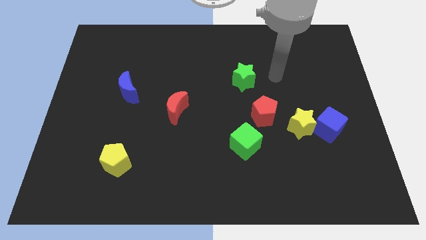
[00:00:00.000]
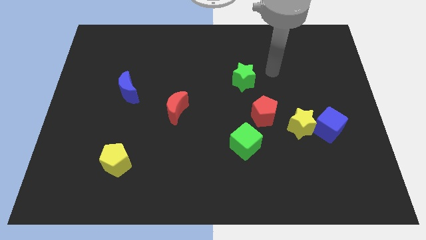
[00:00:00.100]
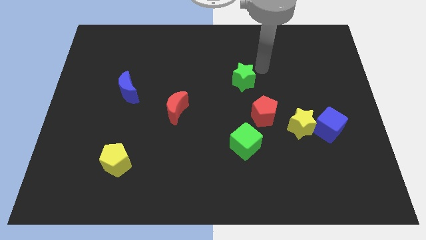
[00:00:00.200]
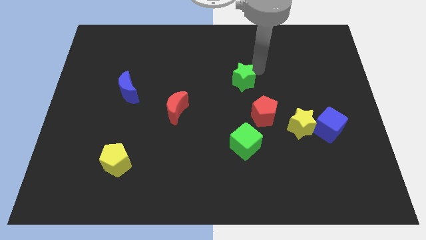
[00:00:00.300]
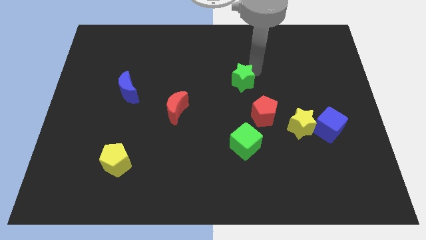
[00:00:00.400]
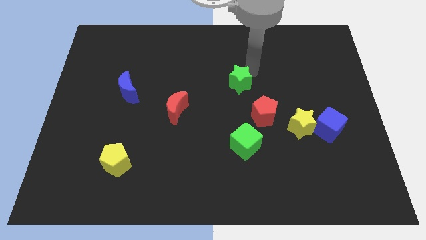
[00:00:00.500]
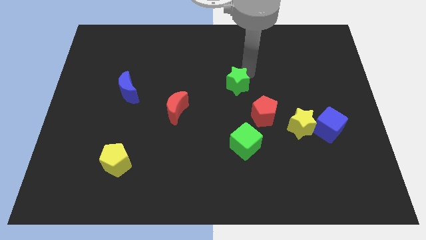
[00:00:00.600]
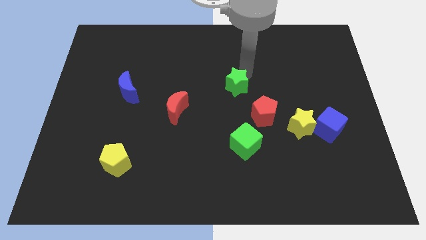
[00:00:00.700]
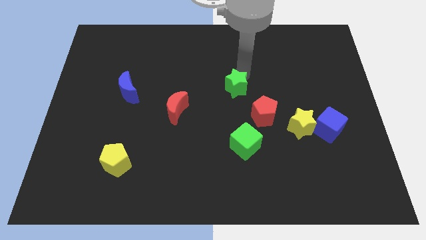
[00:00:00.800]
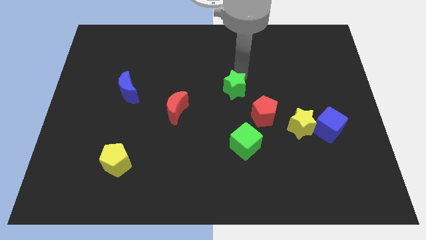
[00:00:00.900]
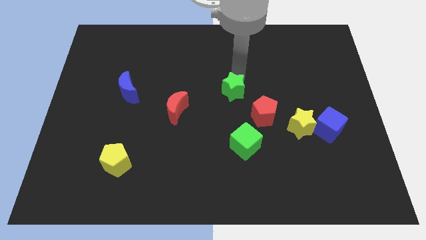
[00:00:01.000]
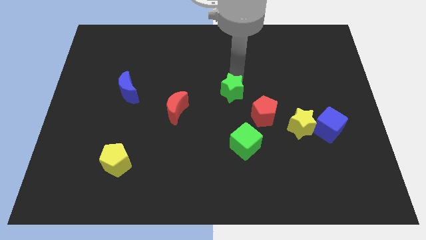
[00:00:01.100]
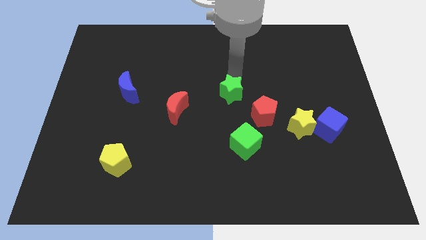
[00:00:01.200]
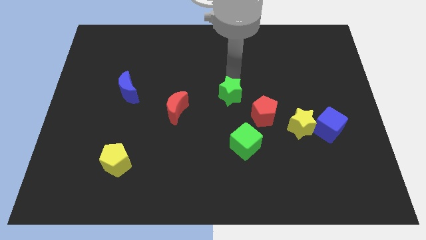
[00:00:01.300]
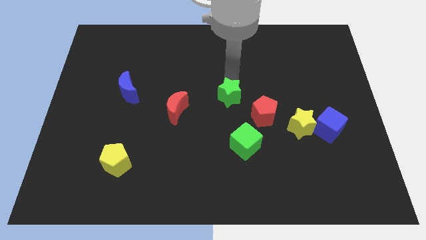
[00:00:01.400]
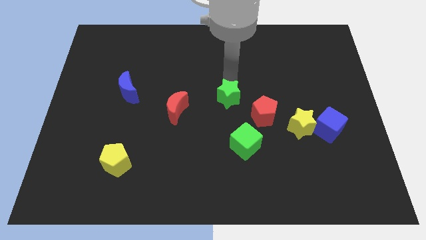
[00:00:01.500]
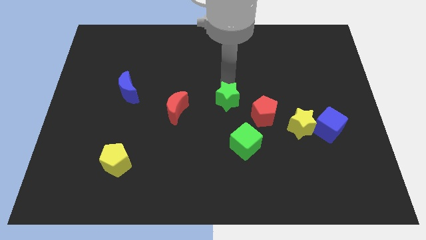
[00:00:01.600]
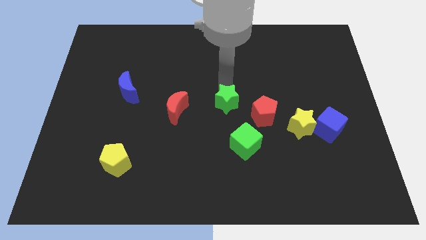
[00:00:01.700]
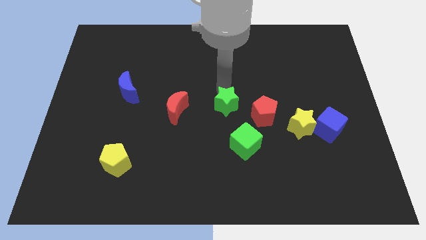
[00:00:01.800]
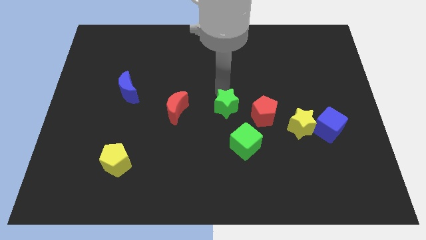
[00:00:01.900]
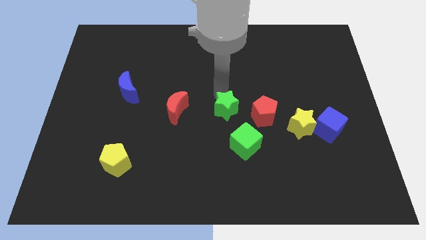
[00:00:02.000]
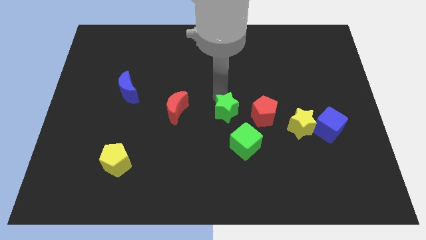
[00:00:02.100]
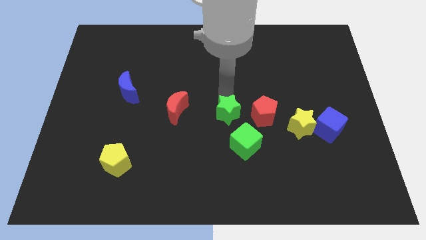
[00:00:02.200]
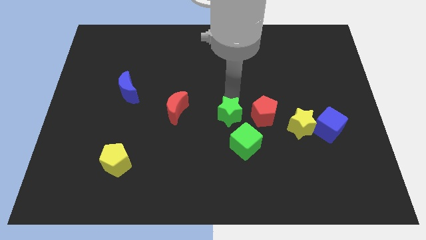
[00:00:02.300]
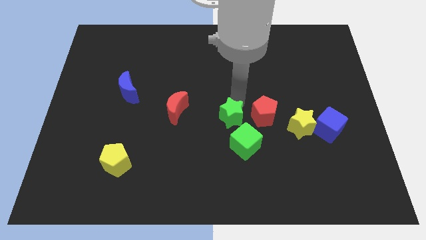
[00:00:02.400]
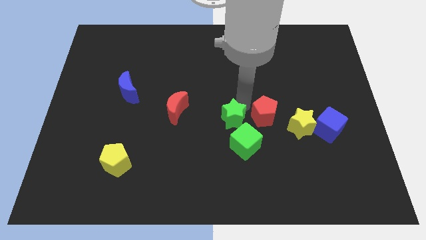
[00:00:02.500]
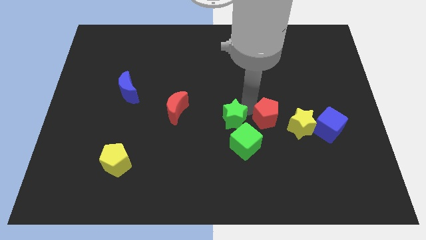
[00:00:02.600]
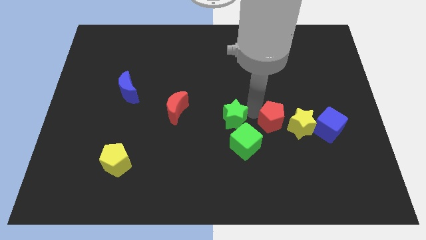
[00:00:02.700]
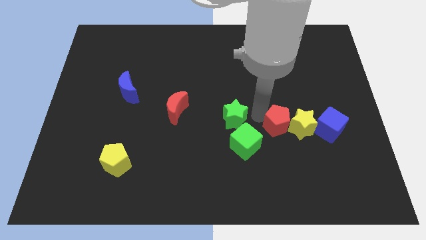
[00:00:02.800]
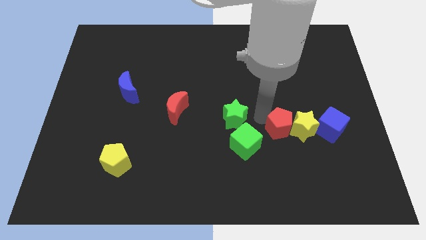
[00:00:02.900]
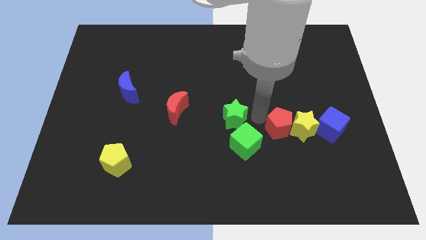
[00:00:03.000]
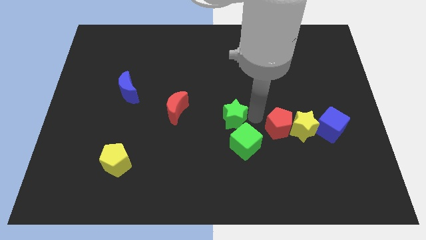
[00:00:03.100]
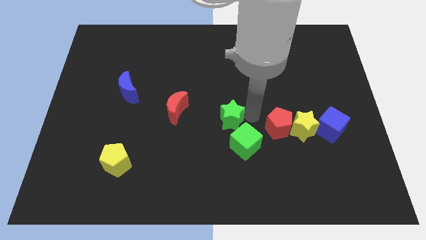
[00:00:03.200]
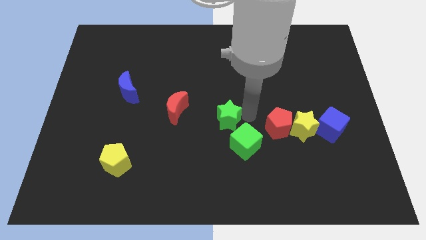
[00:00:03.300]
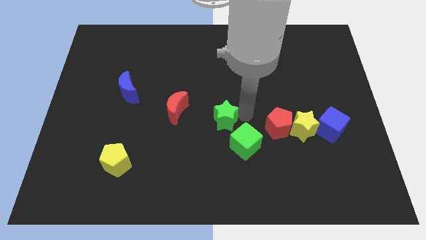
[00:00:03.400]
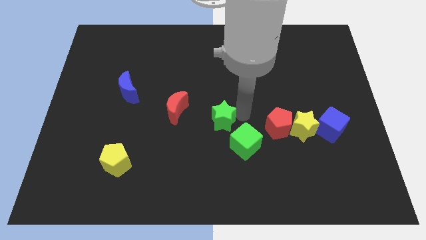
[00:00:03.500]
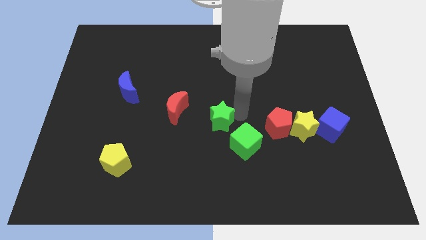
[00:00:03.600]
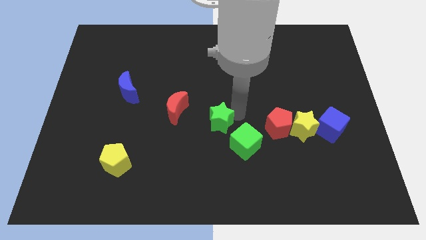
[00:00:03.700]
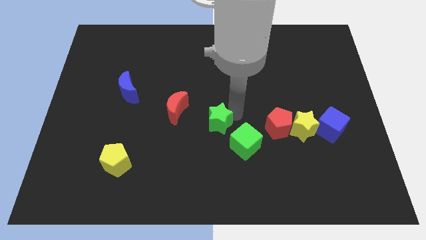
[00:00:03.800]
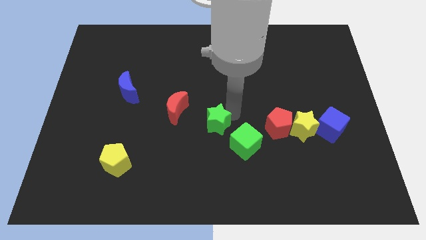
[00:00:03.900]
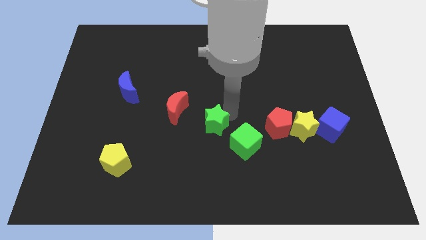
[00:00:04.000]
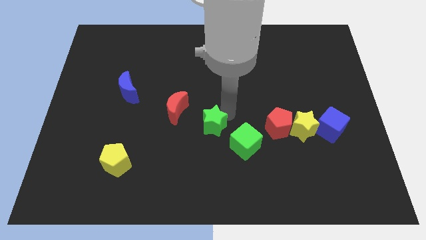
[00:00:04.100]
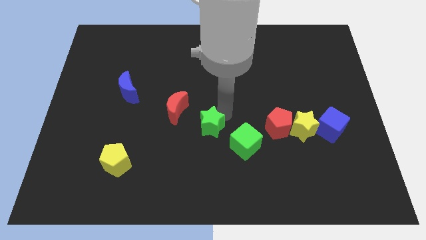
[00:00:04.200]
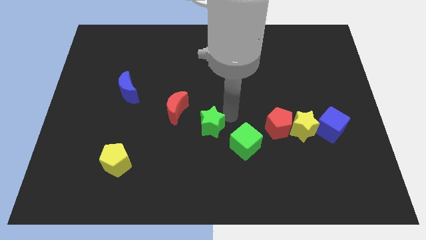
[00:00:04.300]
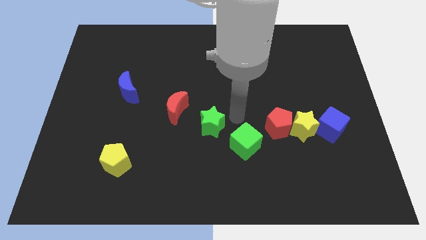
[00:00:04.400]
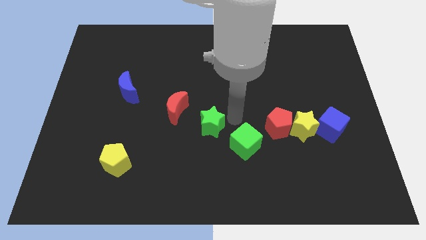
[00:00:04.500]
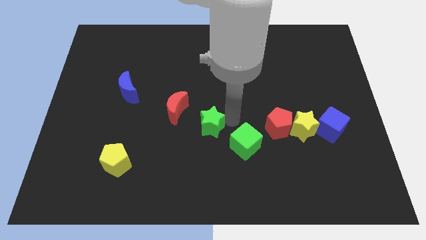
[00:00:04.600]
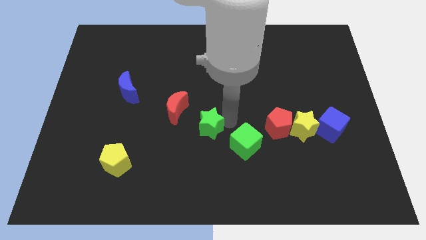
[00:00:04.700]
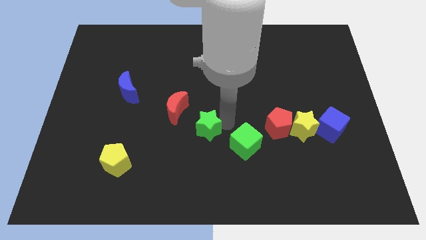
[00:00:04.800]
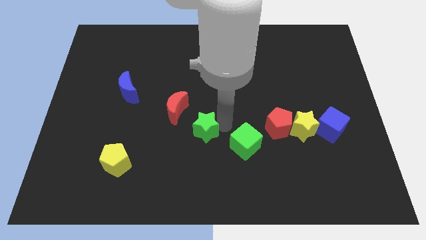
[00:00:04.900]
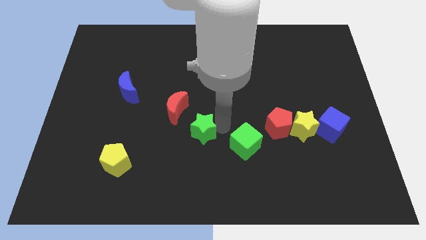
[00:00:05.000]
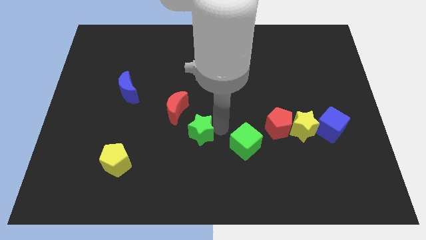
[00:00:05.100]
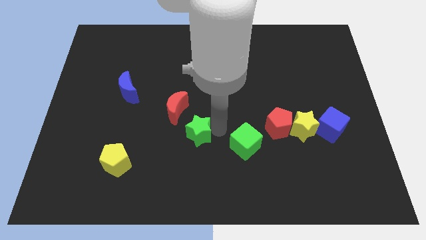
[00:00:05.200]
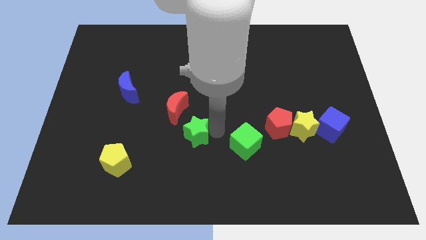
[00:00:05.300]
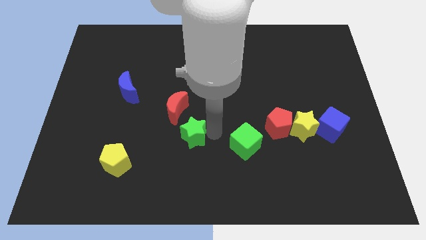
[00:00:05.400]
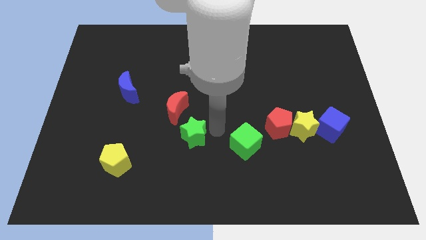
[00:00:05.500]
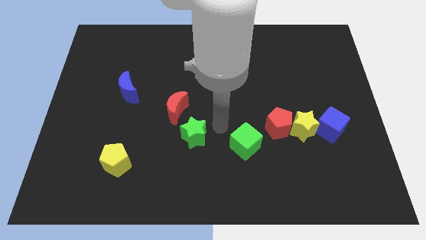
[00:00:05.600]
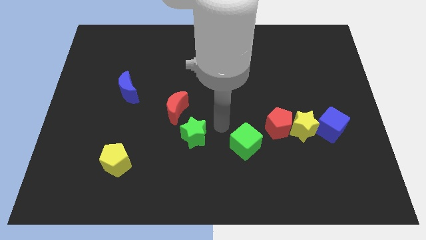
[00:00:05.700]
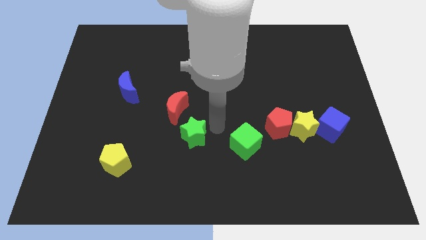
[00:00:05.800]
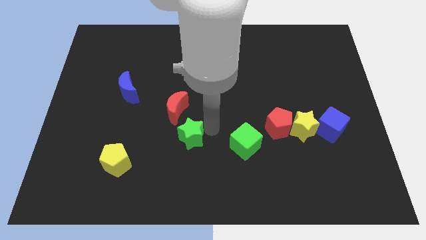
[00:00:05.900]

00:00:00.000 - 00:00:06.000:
move the green star diagonally downwards and to the left

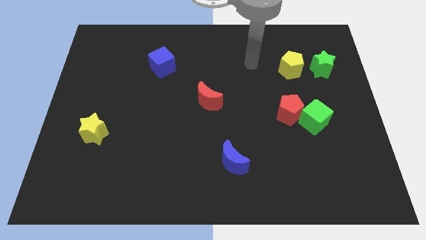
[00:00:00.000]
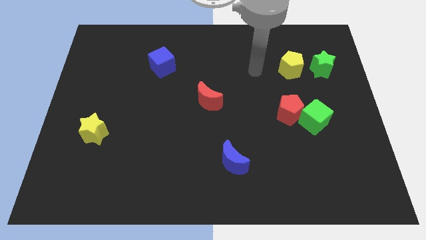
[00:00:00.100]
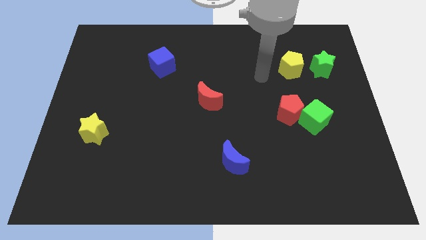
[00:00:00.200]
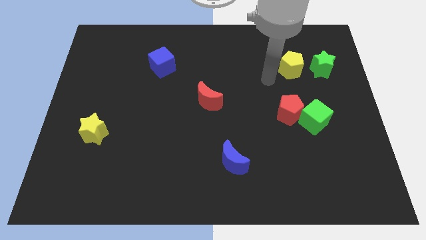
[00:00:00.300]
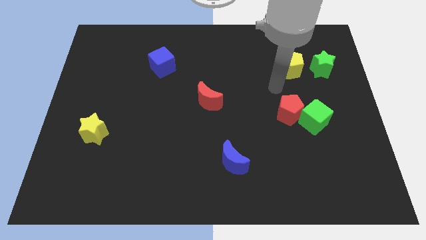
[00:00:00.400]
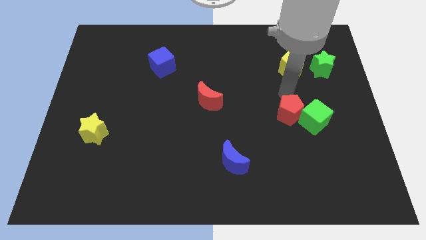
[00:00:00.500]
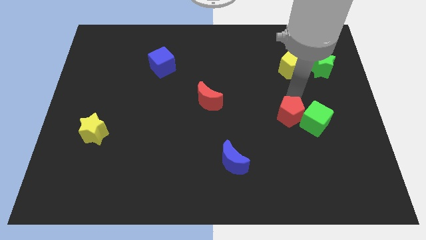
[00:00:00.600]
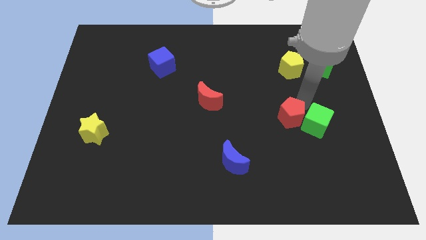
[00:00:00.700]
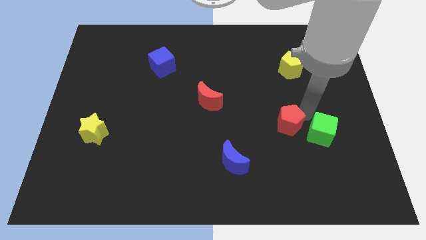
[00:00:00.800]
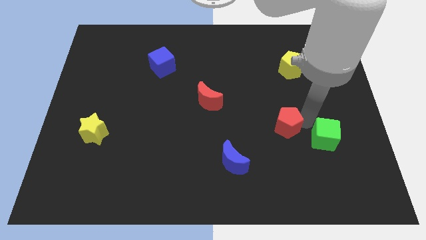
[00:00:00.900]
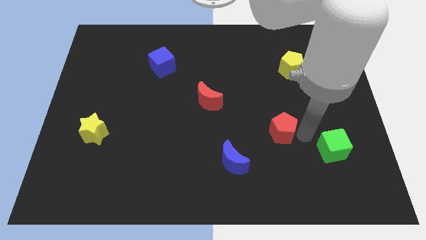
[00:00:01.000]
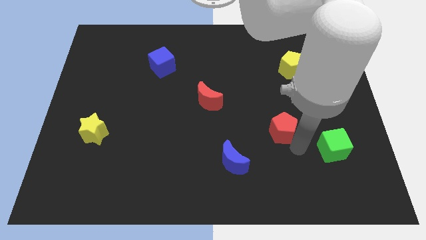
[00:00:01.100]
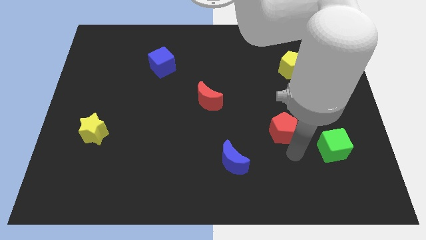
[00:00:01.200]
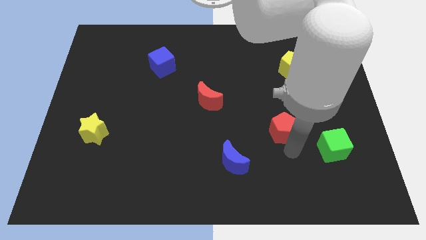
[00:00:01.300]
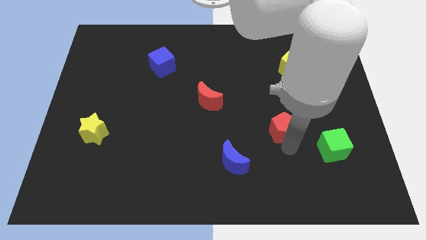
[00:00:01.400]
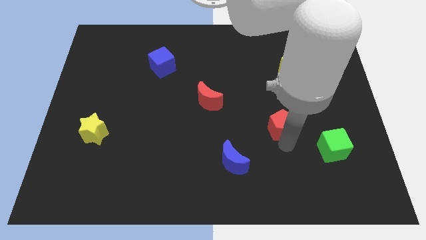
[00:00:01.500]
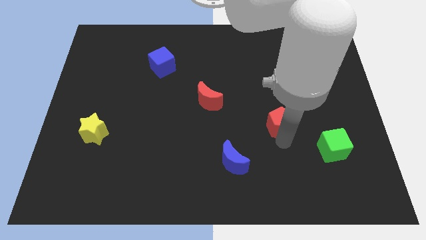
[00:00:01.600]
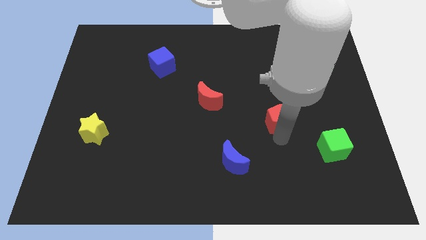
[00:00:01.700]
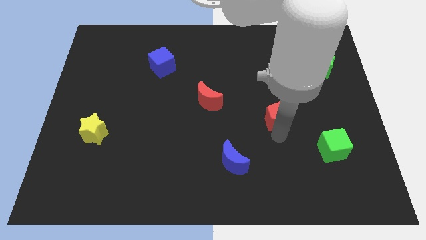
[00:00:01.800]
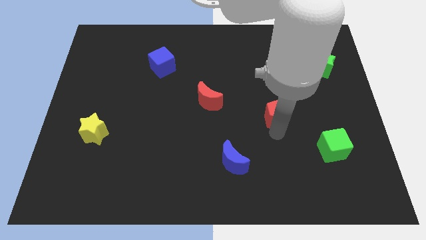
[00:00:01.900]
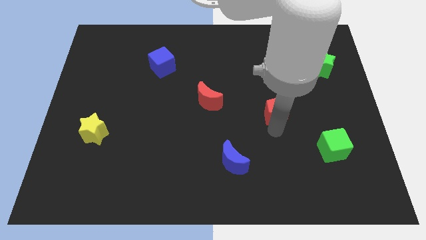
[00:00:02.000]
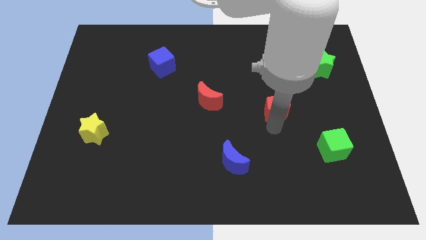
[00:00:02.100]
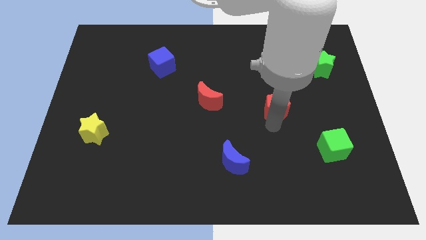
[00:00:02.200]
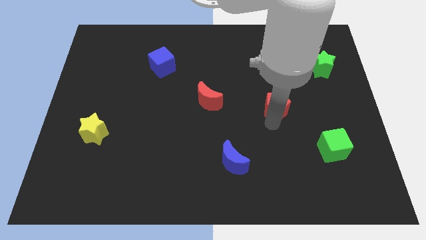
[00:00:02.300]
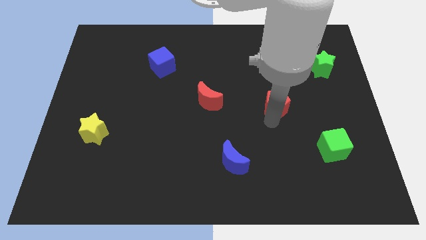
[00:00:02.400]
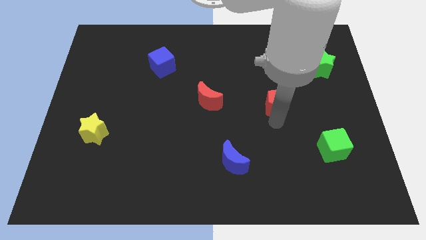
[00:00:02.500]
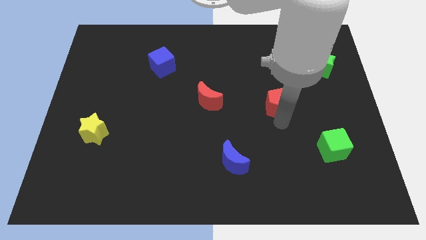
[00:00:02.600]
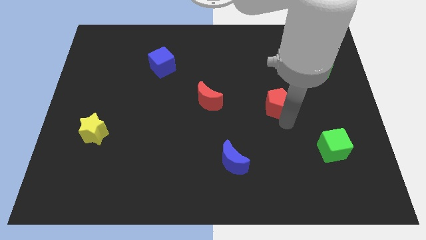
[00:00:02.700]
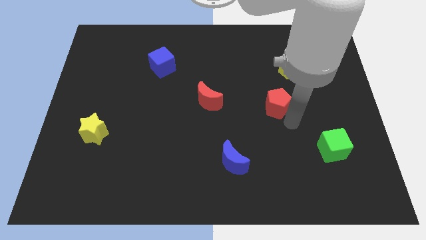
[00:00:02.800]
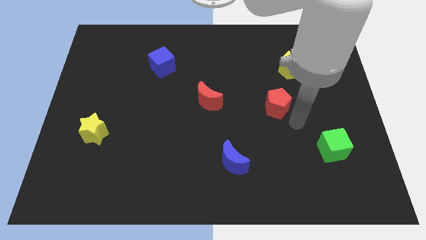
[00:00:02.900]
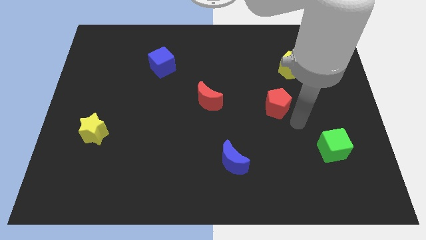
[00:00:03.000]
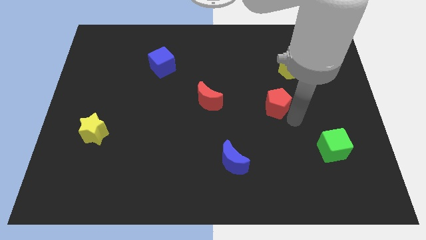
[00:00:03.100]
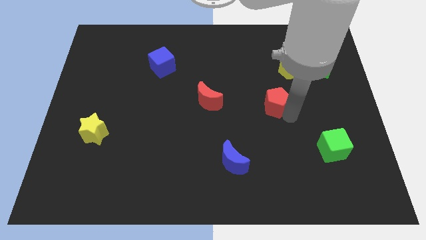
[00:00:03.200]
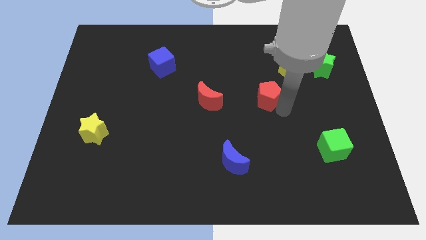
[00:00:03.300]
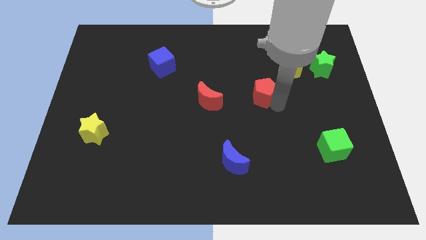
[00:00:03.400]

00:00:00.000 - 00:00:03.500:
push the red pentagon a little bit up and to the left
